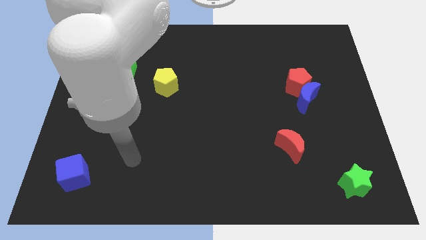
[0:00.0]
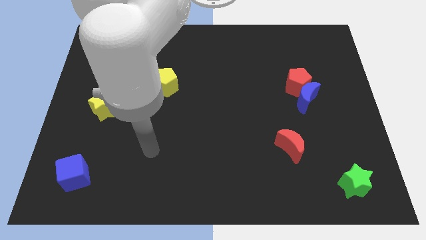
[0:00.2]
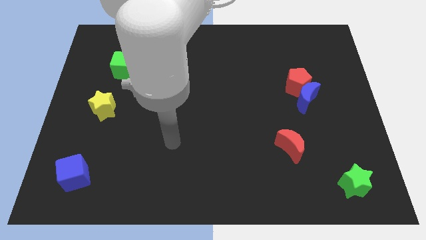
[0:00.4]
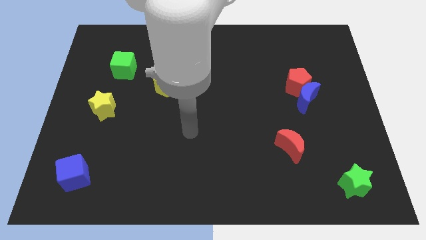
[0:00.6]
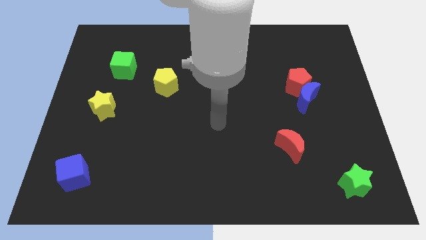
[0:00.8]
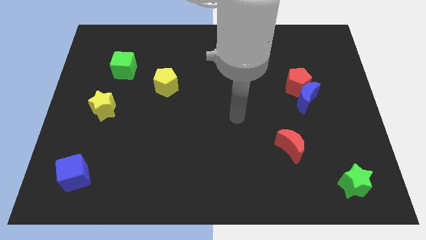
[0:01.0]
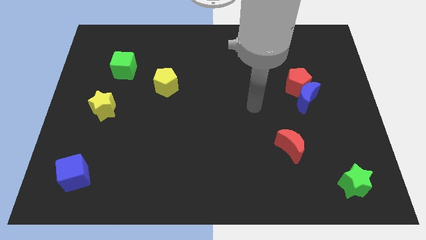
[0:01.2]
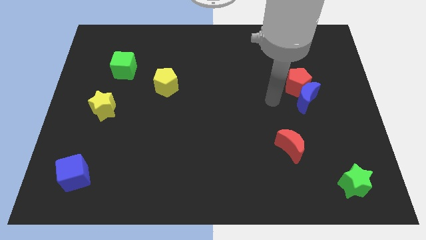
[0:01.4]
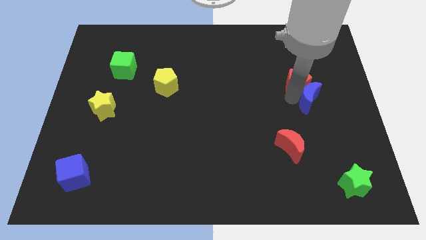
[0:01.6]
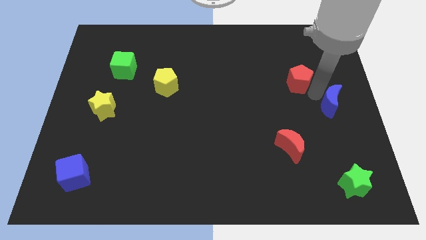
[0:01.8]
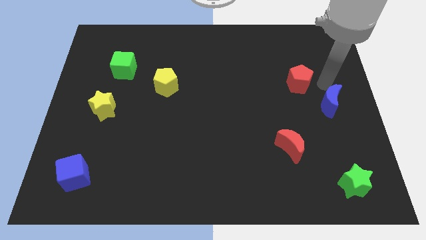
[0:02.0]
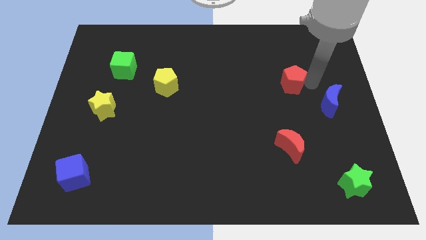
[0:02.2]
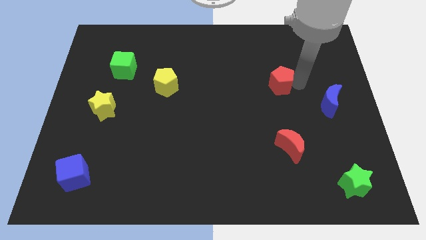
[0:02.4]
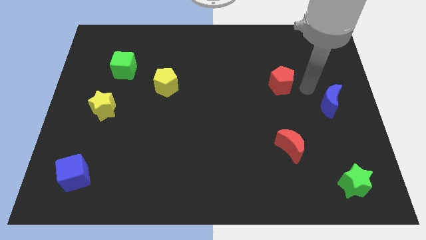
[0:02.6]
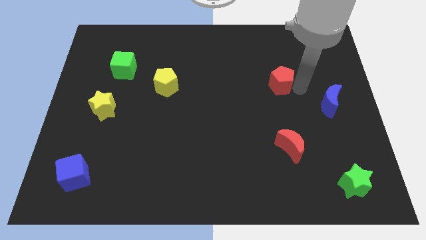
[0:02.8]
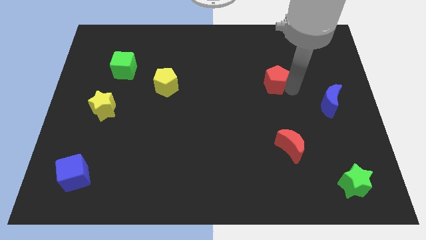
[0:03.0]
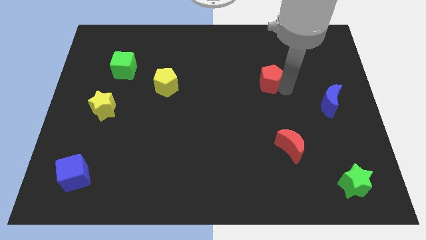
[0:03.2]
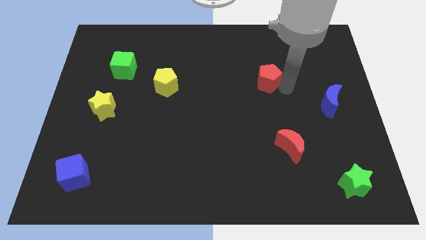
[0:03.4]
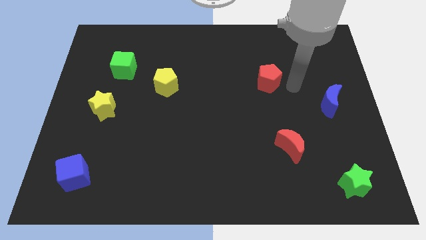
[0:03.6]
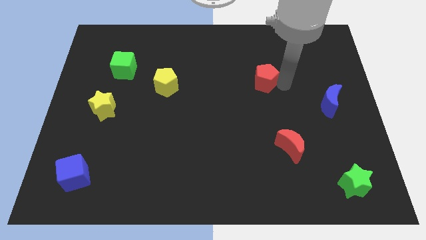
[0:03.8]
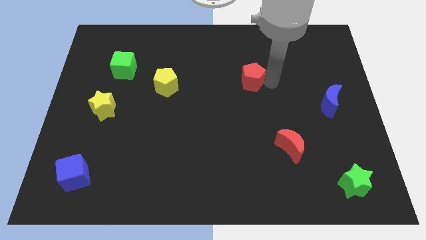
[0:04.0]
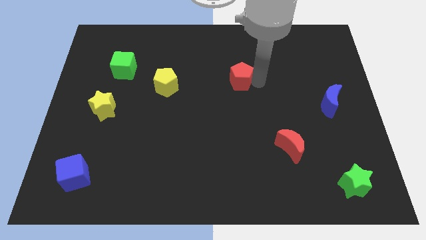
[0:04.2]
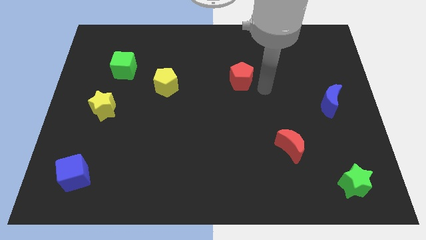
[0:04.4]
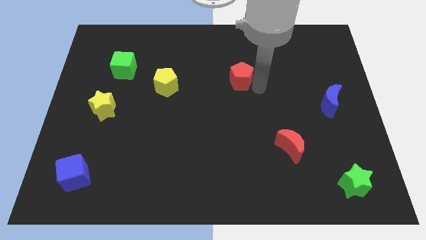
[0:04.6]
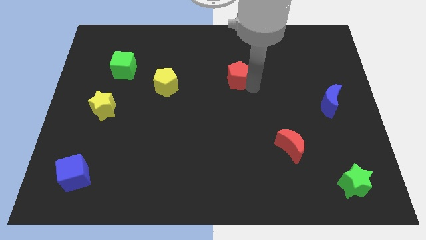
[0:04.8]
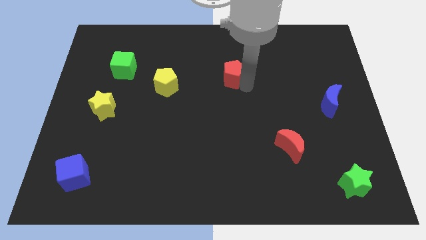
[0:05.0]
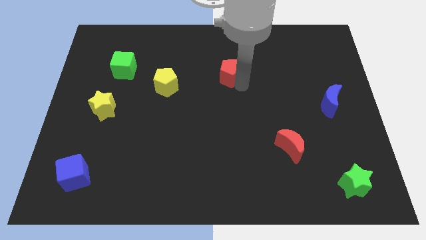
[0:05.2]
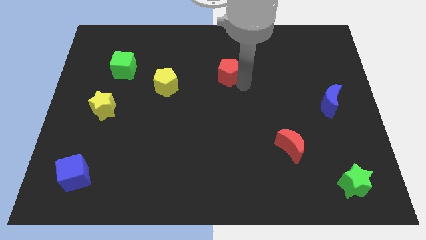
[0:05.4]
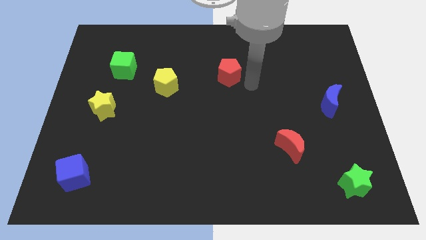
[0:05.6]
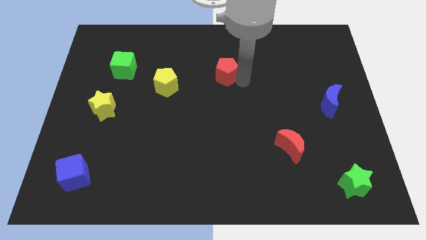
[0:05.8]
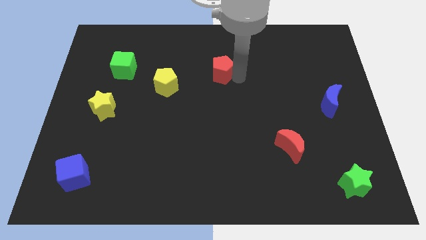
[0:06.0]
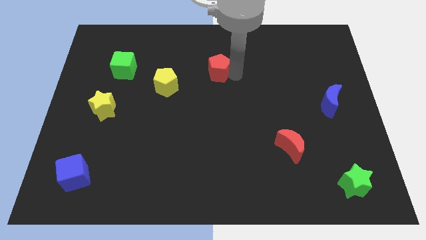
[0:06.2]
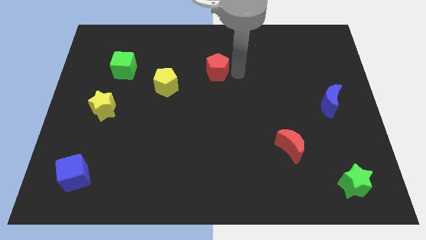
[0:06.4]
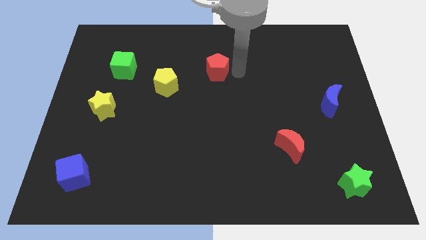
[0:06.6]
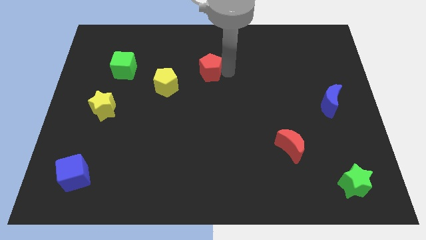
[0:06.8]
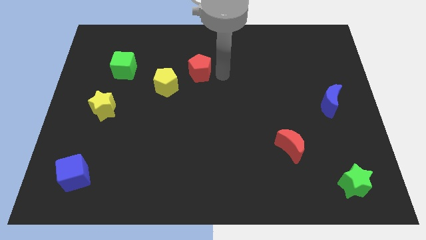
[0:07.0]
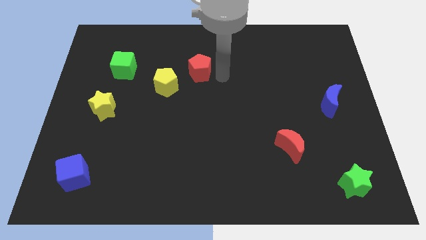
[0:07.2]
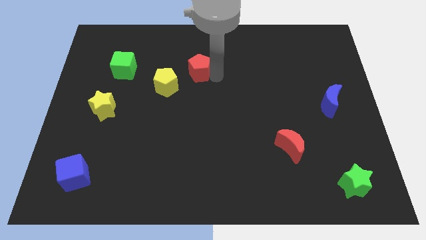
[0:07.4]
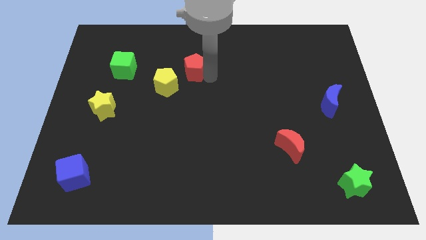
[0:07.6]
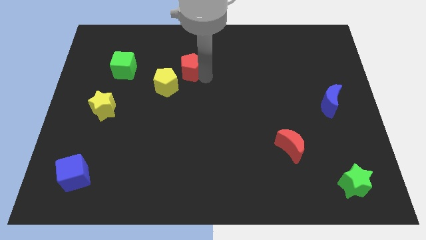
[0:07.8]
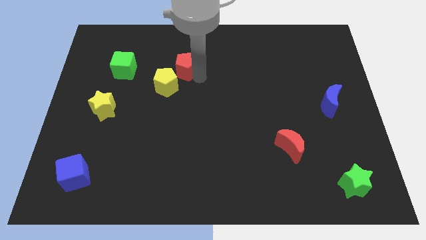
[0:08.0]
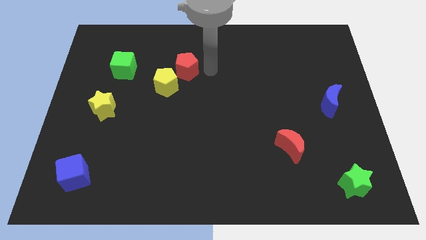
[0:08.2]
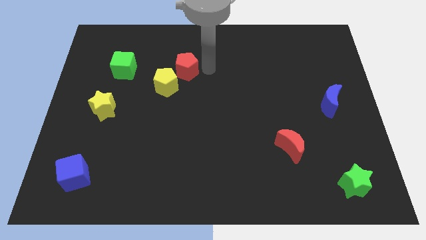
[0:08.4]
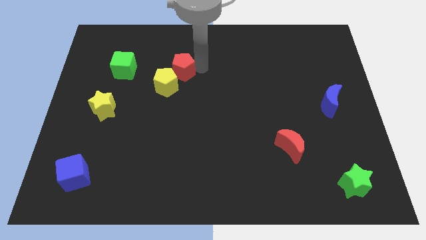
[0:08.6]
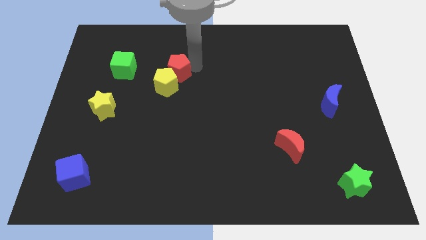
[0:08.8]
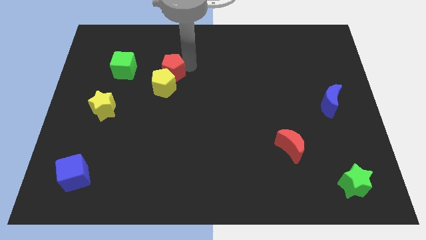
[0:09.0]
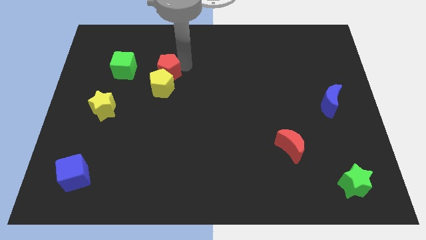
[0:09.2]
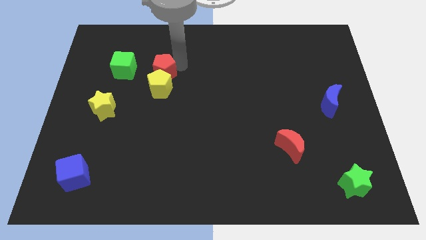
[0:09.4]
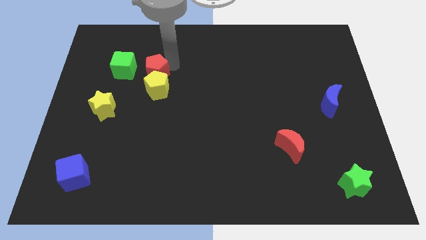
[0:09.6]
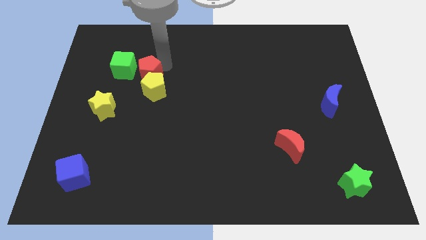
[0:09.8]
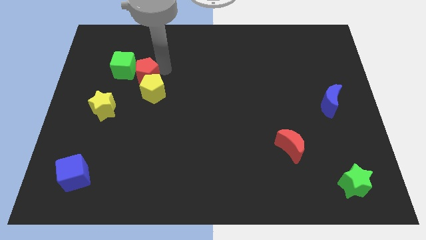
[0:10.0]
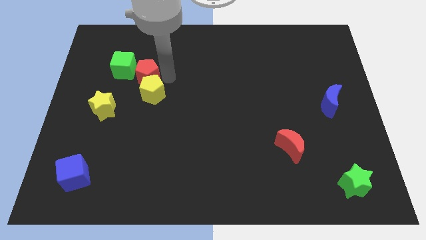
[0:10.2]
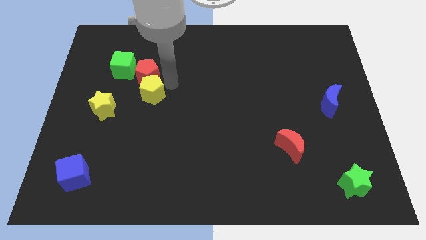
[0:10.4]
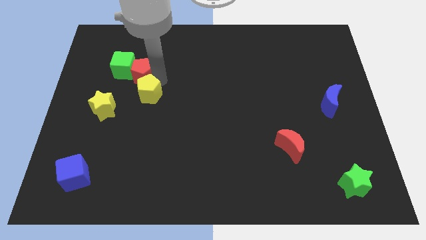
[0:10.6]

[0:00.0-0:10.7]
put the red pentagon next to the green cube

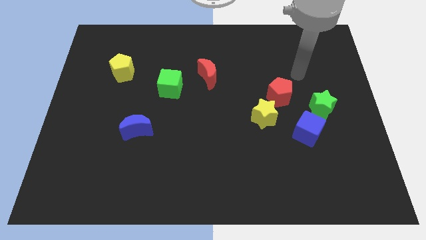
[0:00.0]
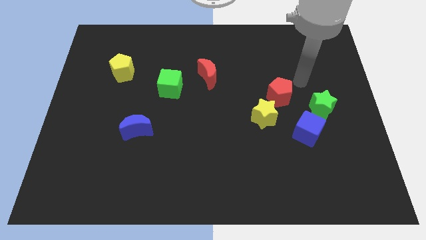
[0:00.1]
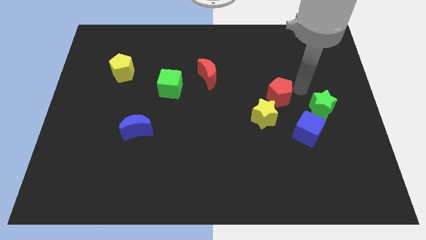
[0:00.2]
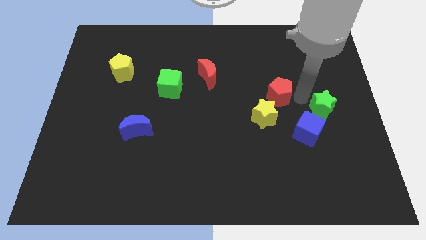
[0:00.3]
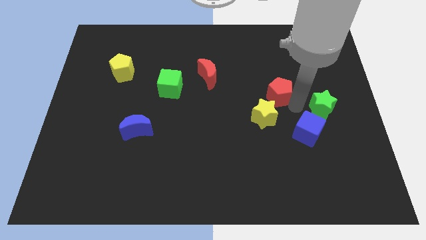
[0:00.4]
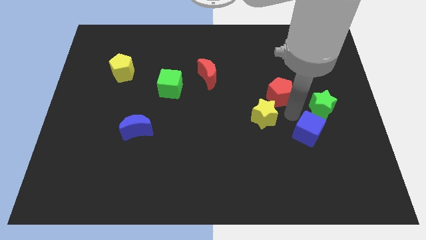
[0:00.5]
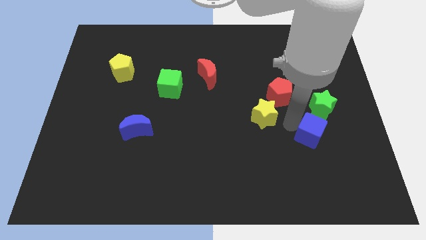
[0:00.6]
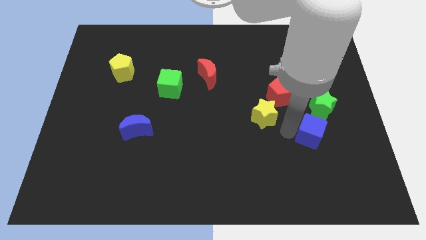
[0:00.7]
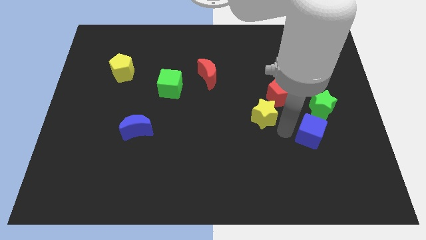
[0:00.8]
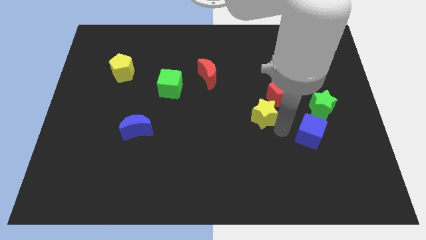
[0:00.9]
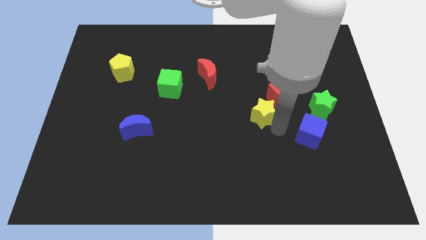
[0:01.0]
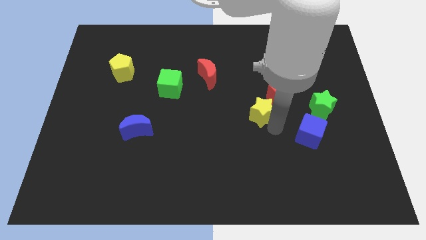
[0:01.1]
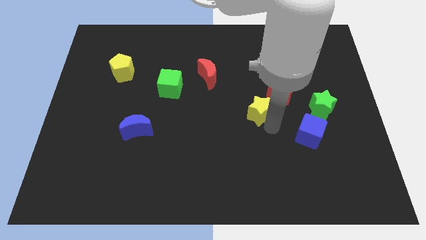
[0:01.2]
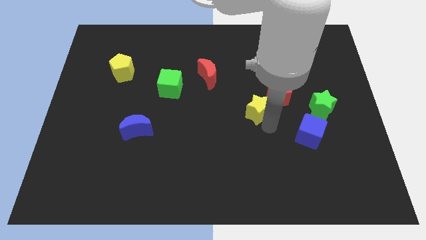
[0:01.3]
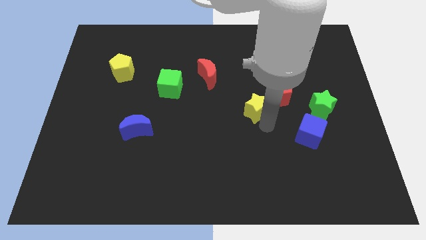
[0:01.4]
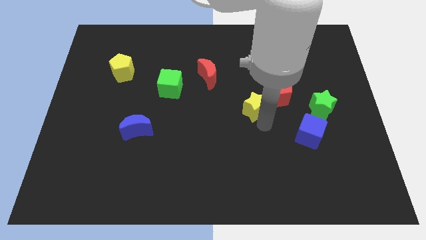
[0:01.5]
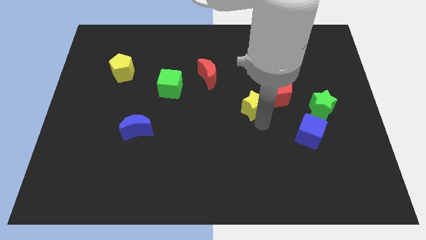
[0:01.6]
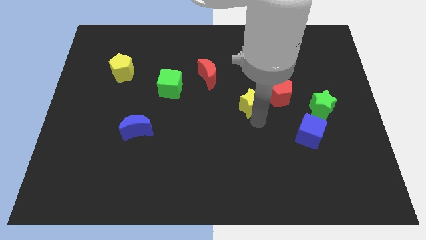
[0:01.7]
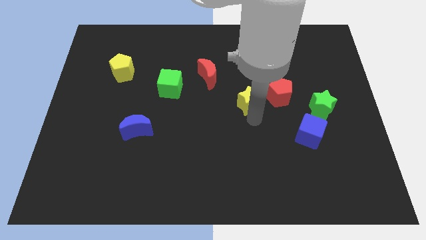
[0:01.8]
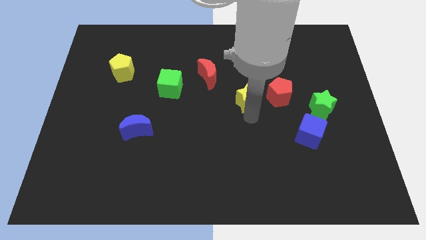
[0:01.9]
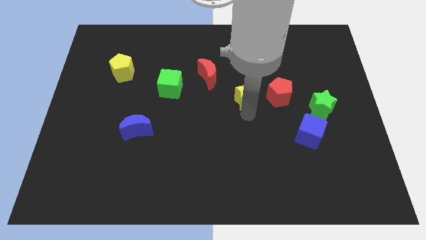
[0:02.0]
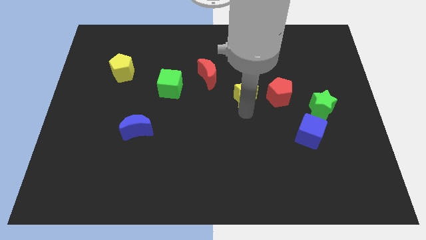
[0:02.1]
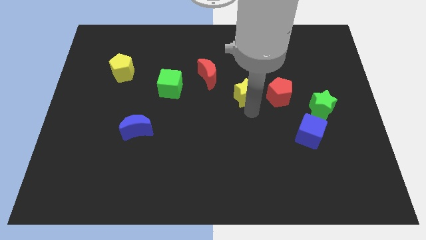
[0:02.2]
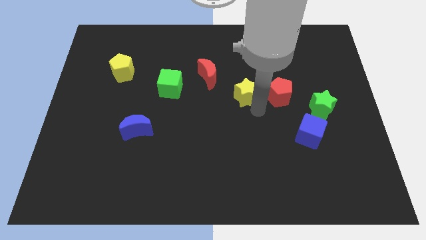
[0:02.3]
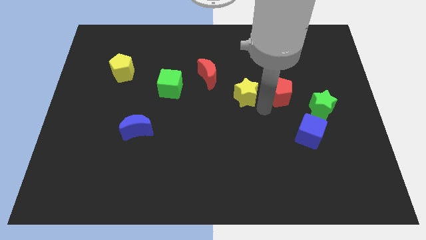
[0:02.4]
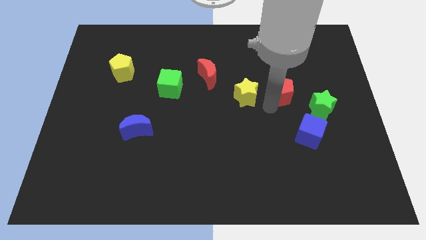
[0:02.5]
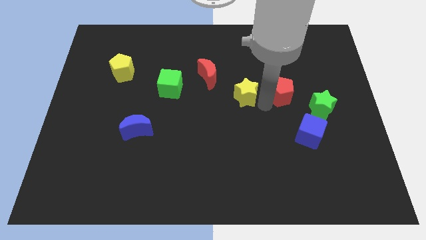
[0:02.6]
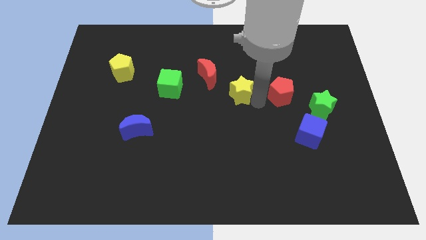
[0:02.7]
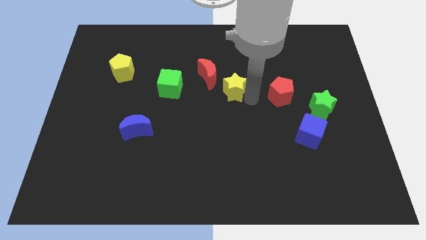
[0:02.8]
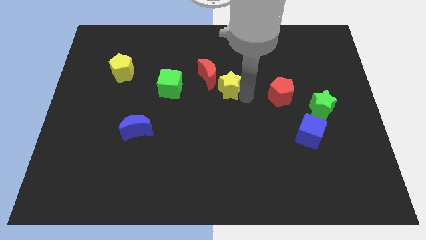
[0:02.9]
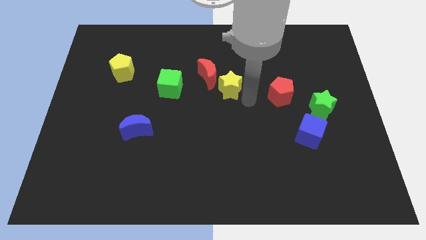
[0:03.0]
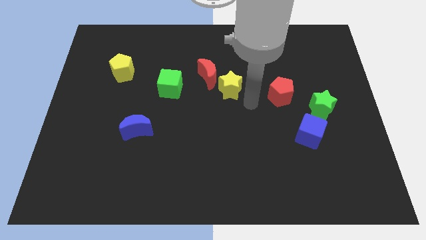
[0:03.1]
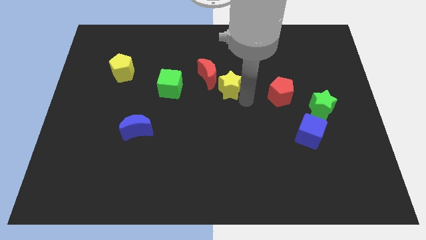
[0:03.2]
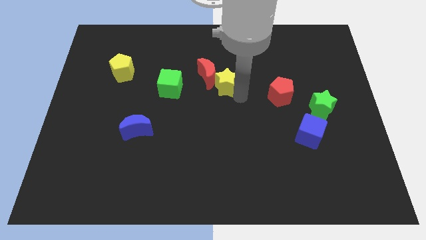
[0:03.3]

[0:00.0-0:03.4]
slide the yellow star towards the red moon
